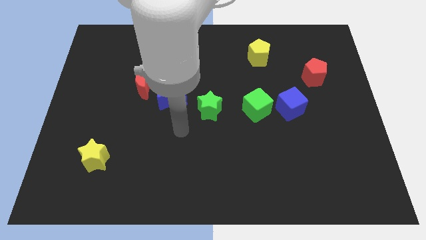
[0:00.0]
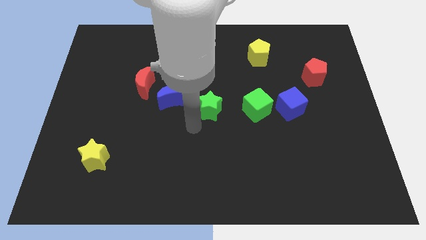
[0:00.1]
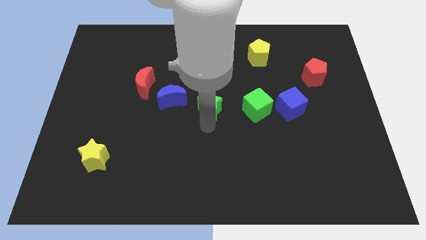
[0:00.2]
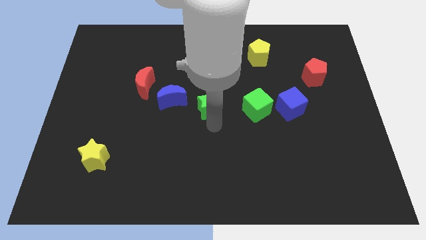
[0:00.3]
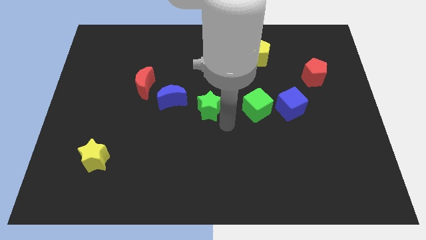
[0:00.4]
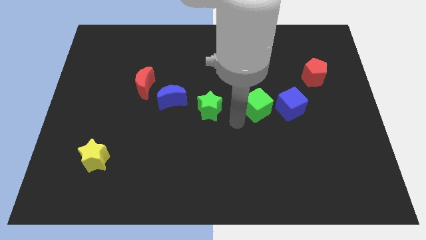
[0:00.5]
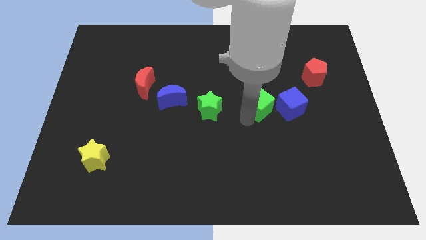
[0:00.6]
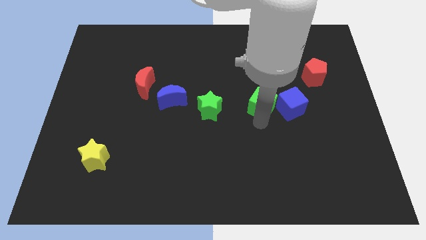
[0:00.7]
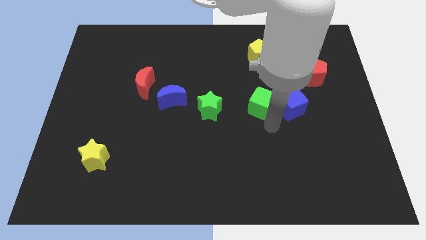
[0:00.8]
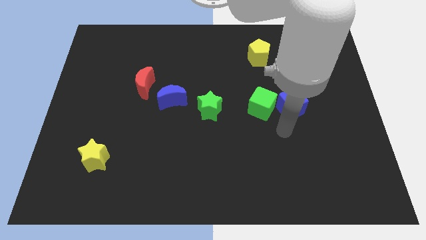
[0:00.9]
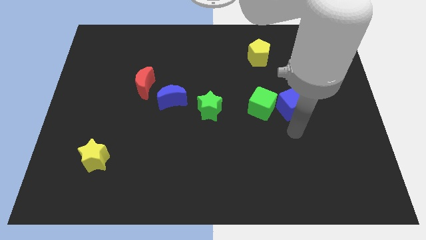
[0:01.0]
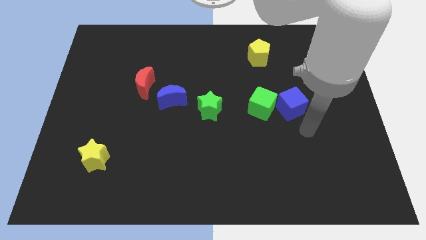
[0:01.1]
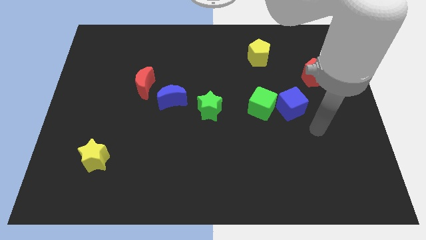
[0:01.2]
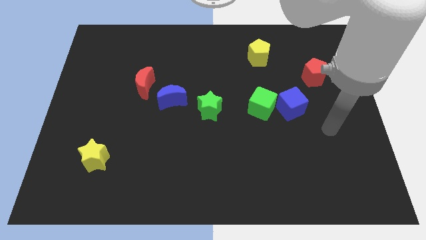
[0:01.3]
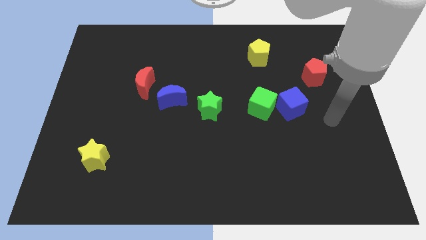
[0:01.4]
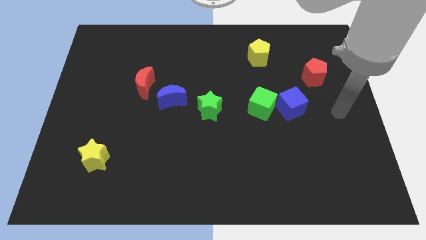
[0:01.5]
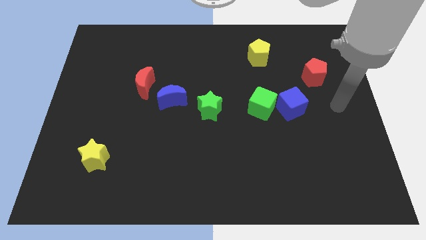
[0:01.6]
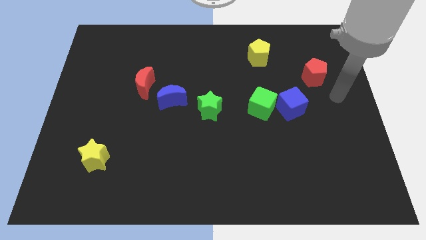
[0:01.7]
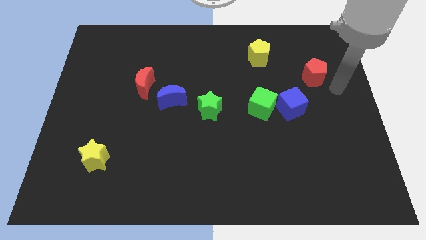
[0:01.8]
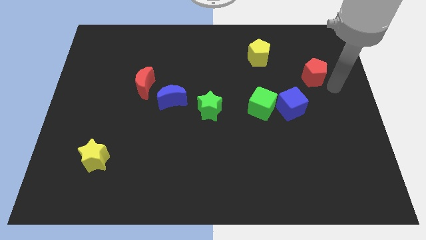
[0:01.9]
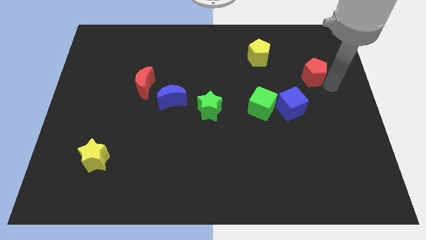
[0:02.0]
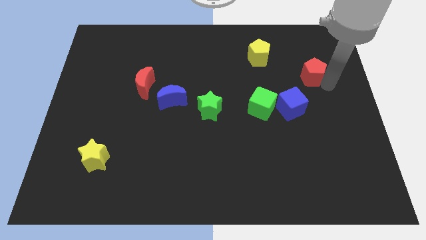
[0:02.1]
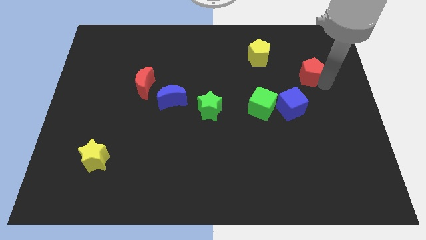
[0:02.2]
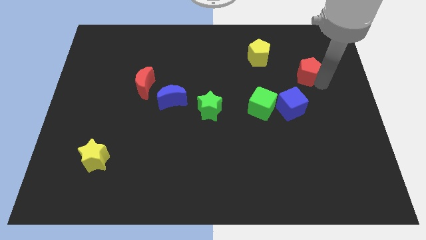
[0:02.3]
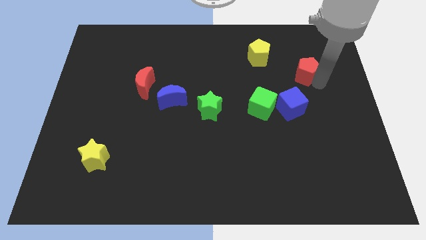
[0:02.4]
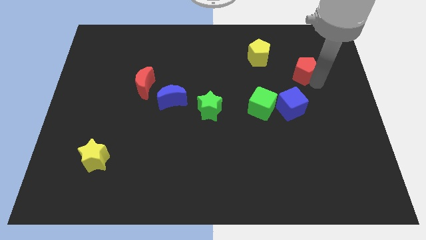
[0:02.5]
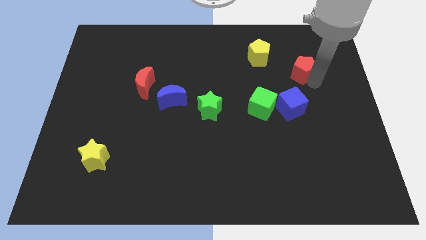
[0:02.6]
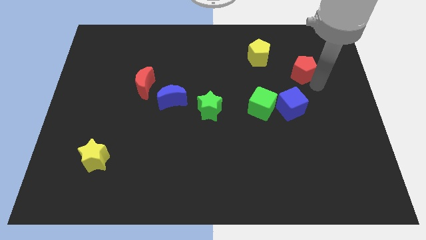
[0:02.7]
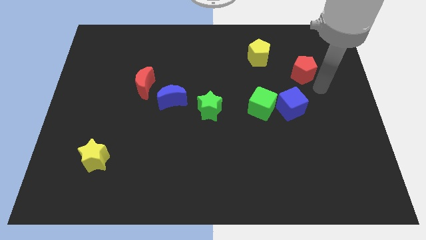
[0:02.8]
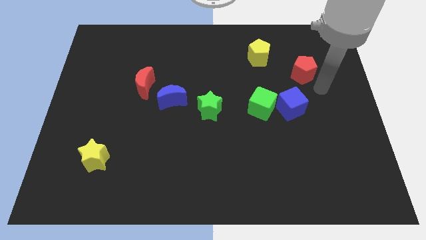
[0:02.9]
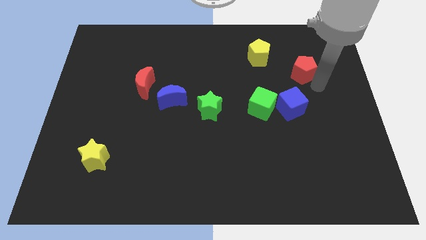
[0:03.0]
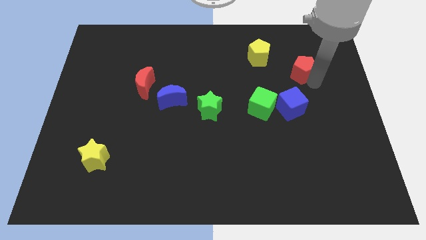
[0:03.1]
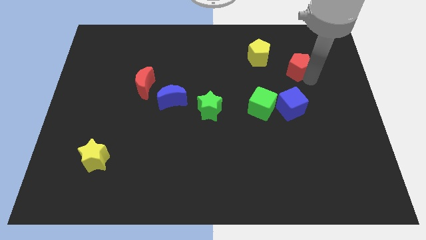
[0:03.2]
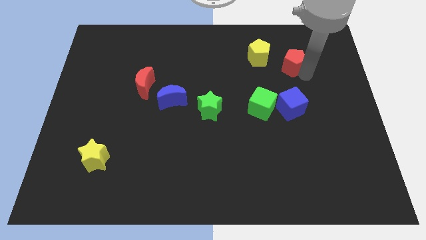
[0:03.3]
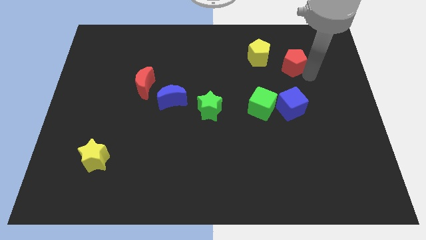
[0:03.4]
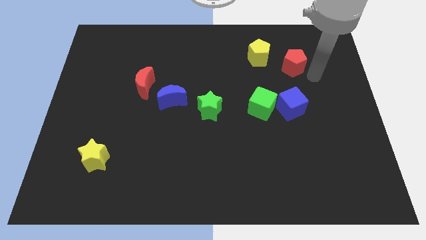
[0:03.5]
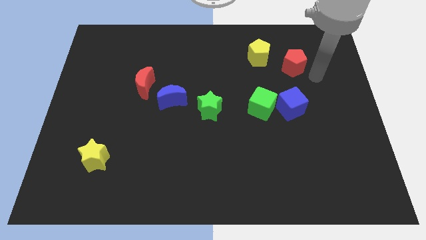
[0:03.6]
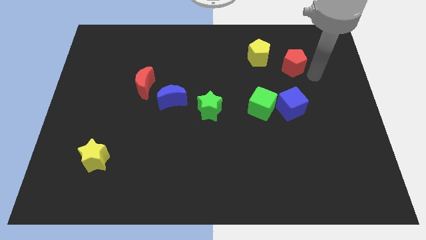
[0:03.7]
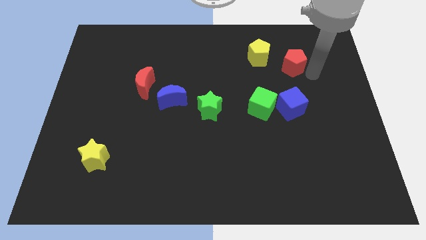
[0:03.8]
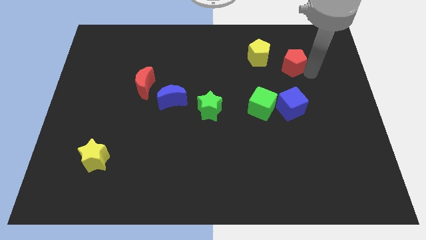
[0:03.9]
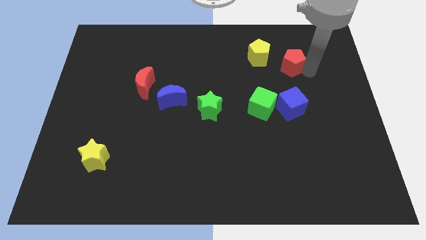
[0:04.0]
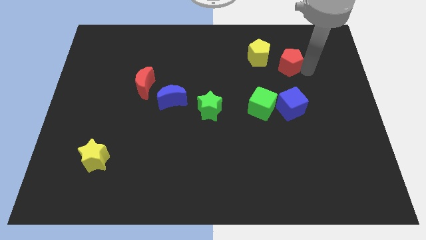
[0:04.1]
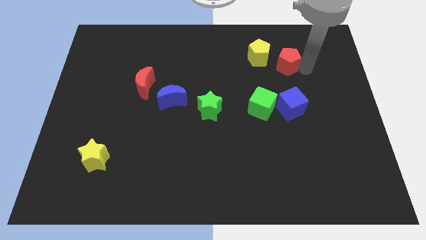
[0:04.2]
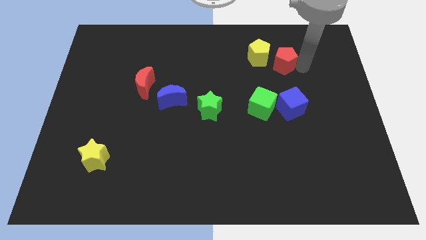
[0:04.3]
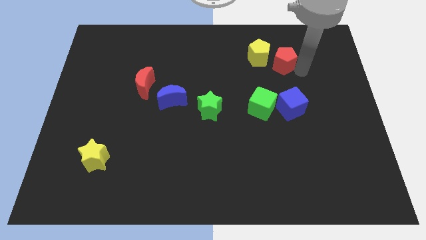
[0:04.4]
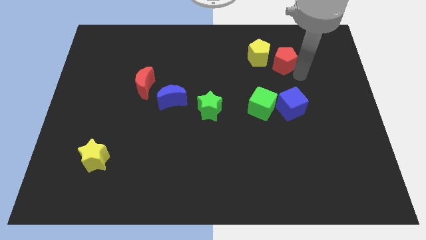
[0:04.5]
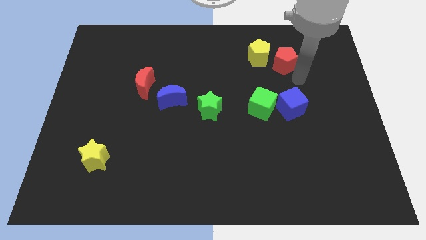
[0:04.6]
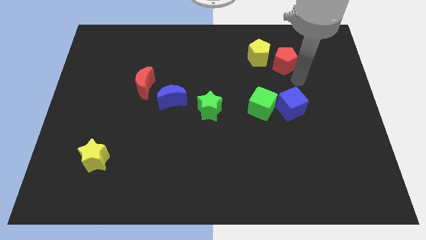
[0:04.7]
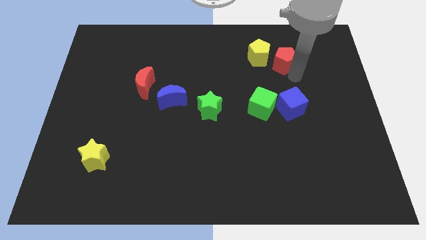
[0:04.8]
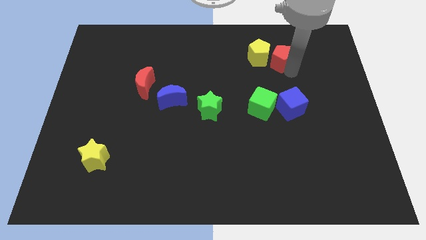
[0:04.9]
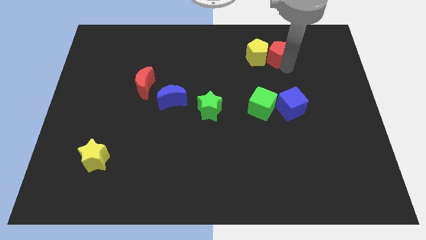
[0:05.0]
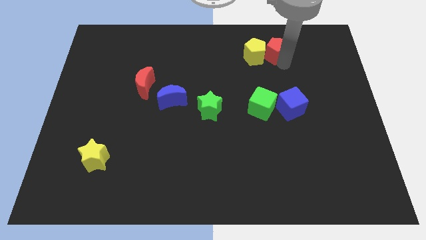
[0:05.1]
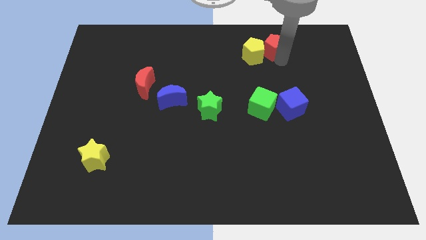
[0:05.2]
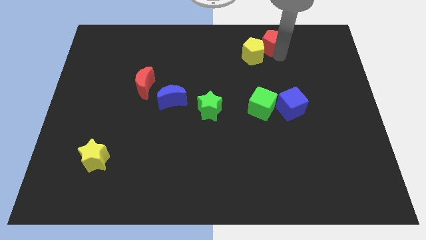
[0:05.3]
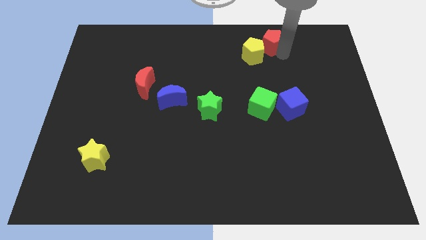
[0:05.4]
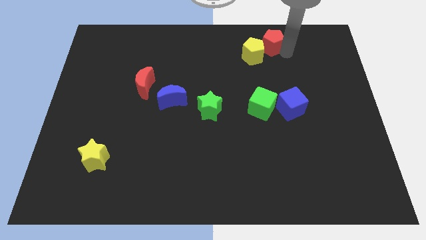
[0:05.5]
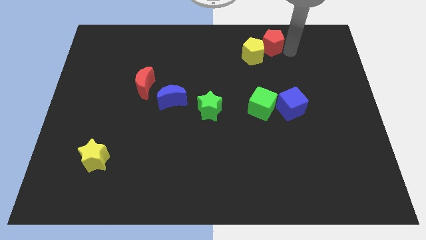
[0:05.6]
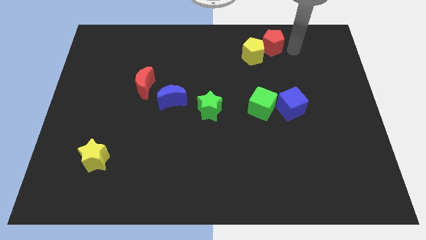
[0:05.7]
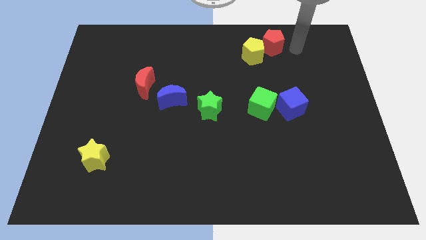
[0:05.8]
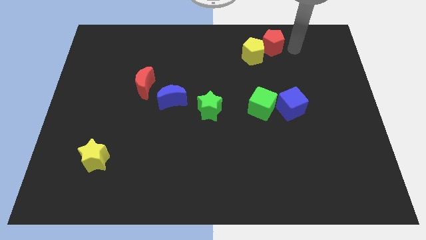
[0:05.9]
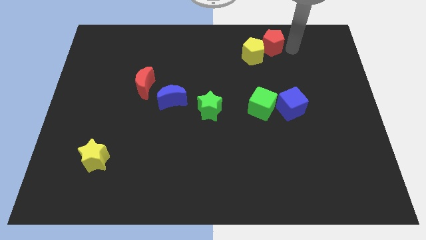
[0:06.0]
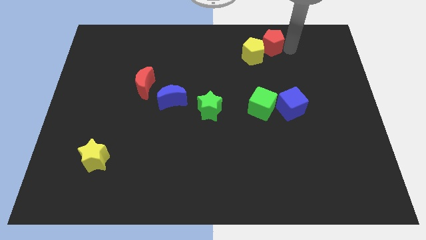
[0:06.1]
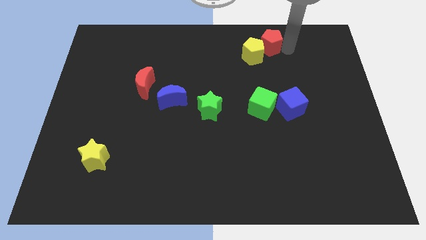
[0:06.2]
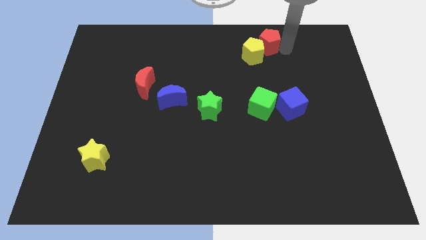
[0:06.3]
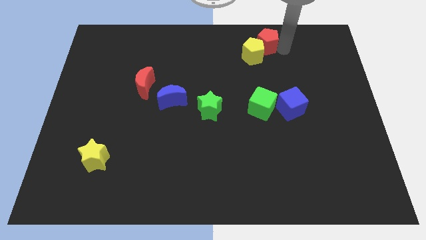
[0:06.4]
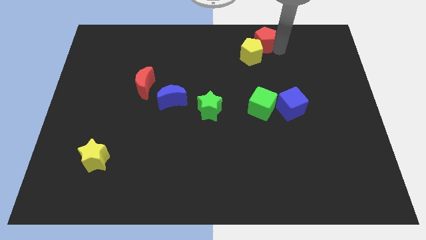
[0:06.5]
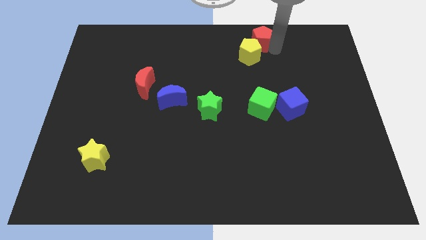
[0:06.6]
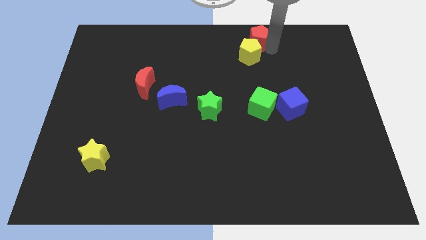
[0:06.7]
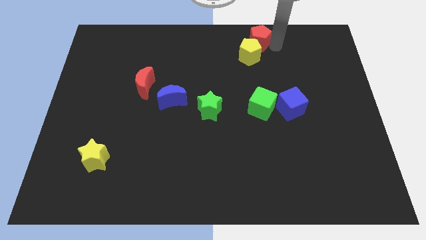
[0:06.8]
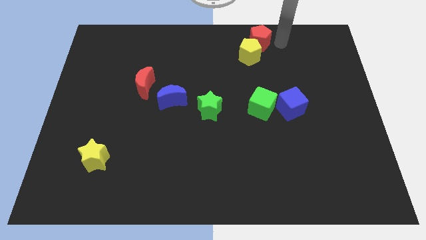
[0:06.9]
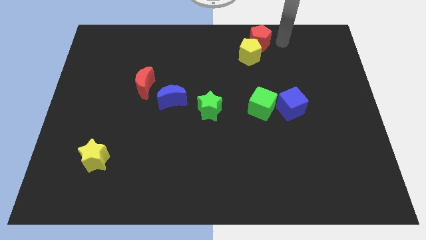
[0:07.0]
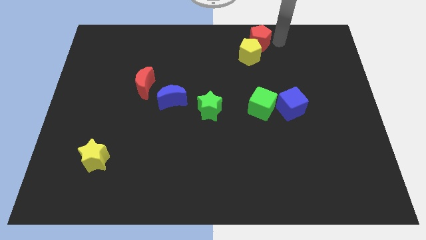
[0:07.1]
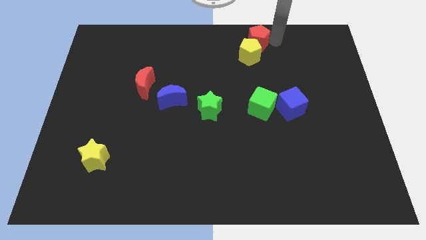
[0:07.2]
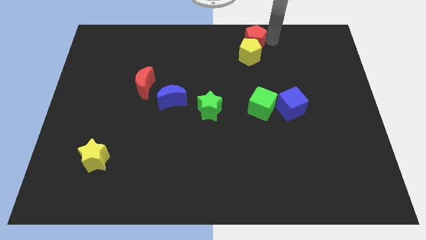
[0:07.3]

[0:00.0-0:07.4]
put the red pentagon to the towards your base
